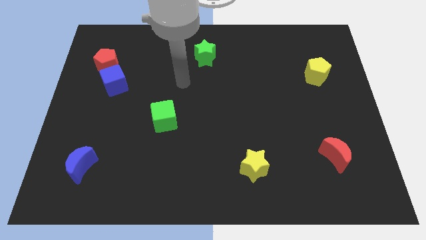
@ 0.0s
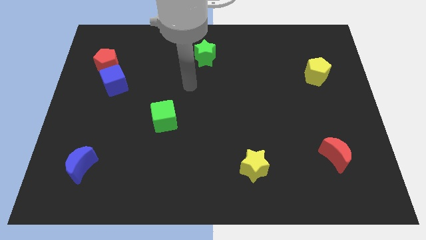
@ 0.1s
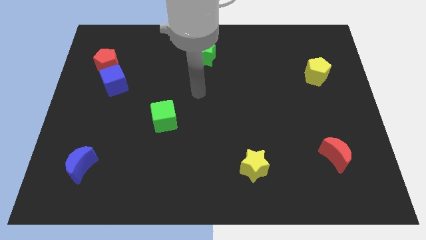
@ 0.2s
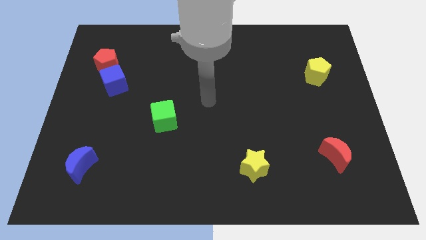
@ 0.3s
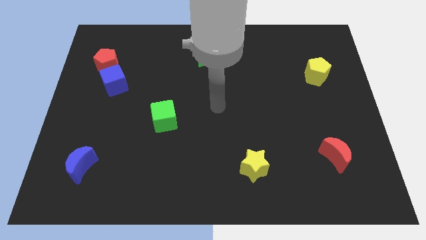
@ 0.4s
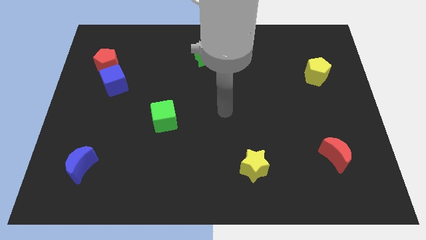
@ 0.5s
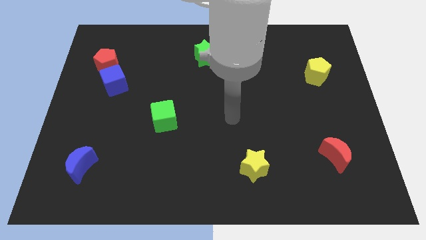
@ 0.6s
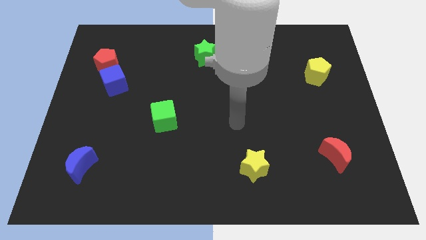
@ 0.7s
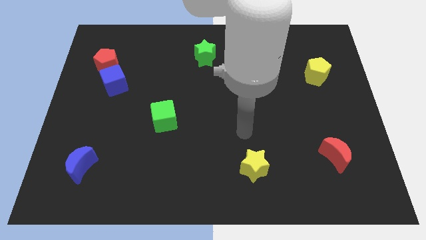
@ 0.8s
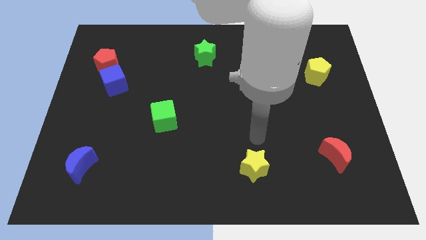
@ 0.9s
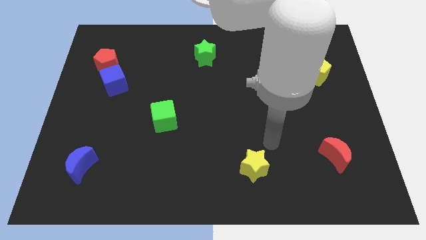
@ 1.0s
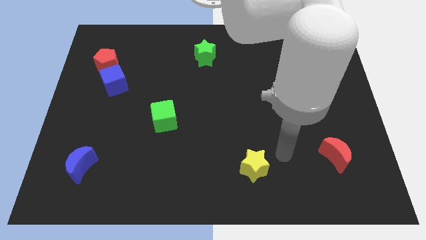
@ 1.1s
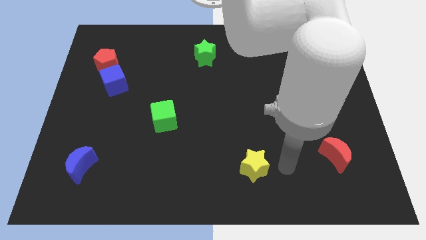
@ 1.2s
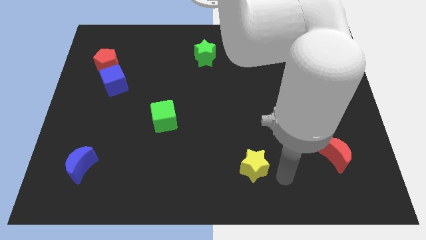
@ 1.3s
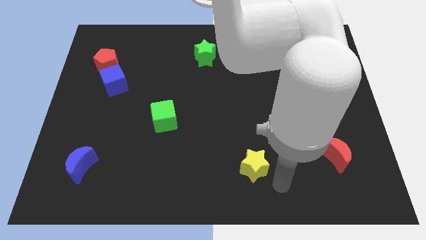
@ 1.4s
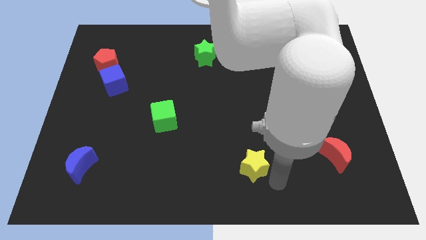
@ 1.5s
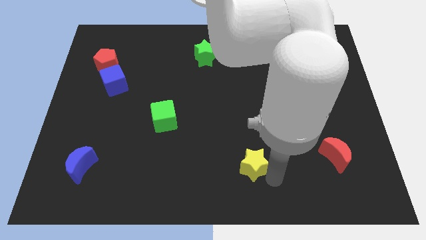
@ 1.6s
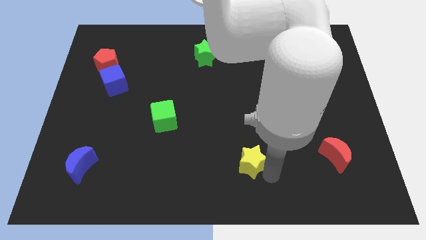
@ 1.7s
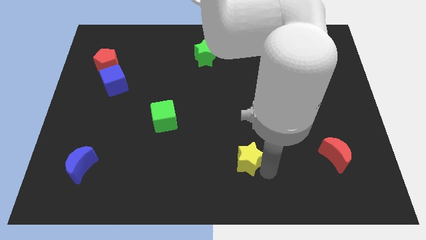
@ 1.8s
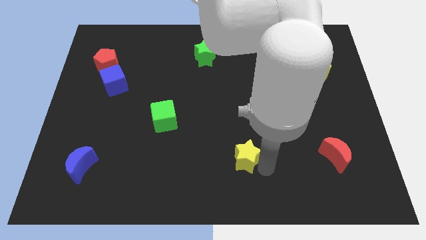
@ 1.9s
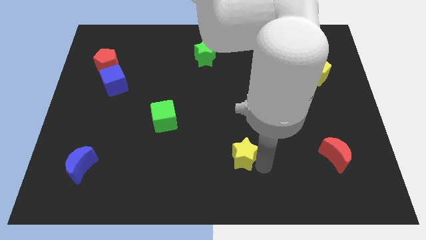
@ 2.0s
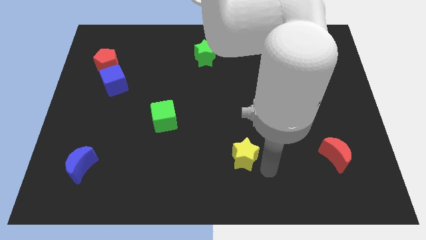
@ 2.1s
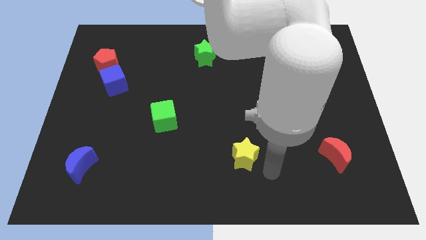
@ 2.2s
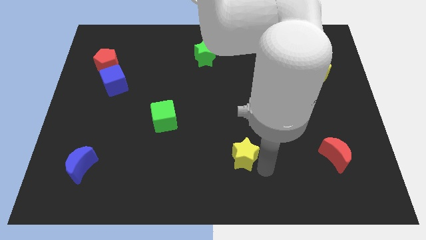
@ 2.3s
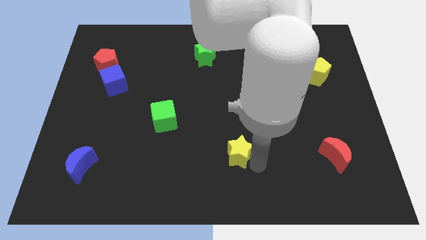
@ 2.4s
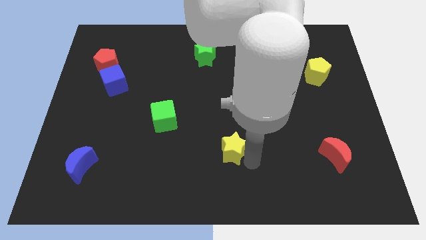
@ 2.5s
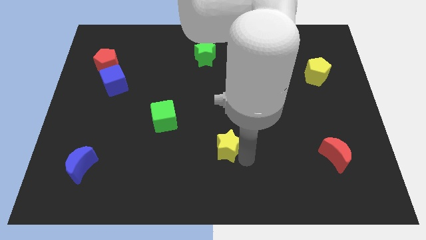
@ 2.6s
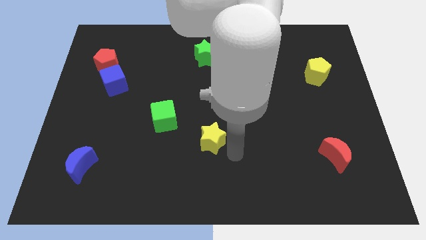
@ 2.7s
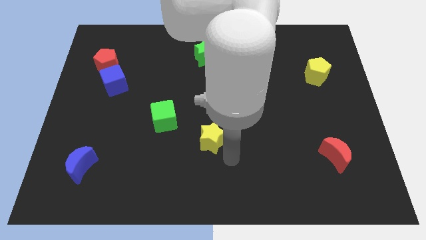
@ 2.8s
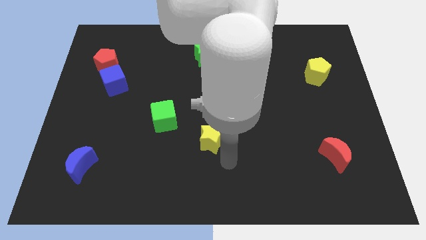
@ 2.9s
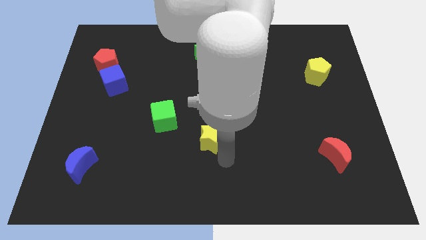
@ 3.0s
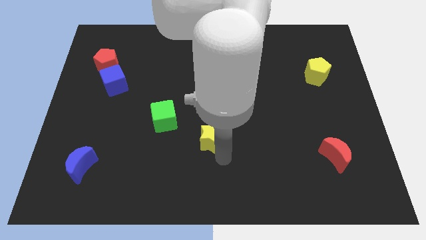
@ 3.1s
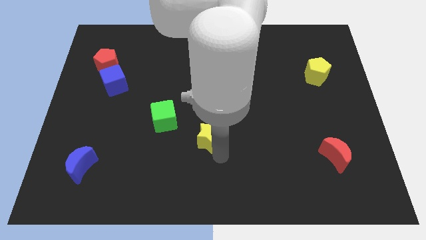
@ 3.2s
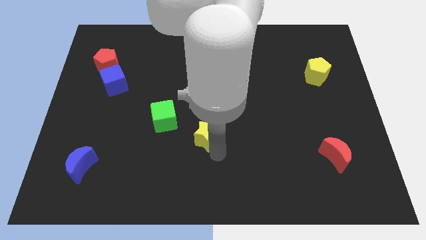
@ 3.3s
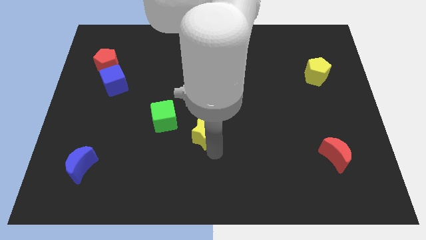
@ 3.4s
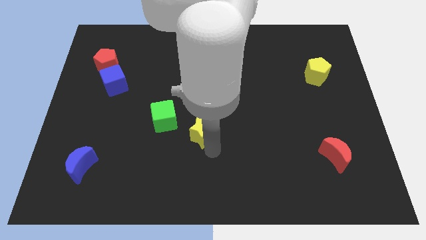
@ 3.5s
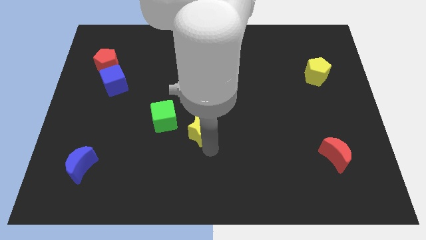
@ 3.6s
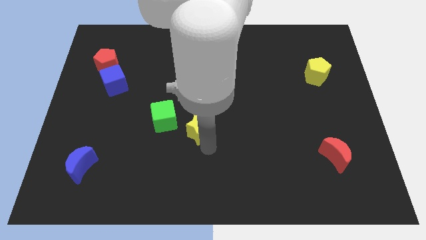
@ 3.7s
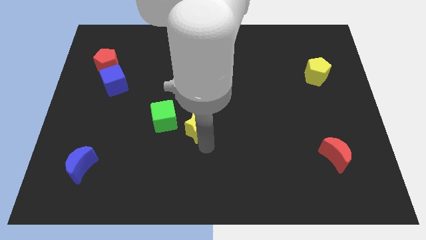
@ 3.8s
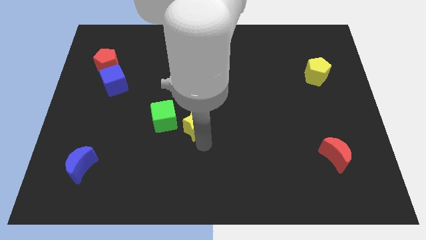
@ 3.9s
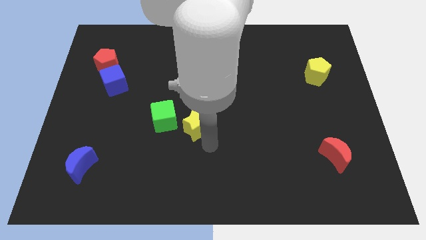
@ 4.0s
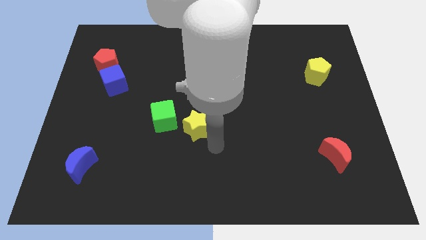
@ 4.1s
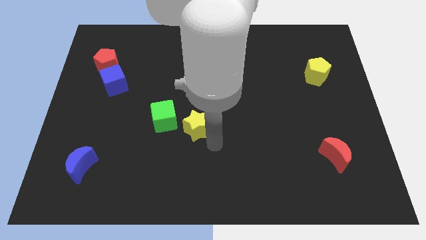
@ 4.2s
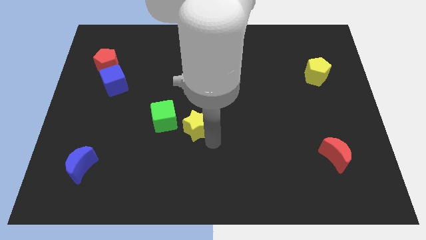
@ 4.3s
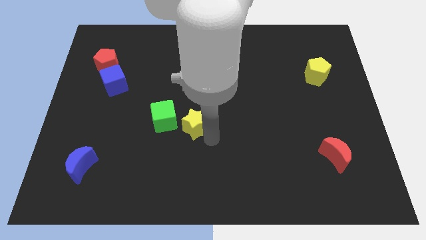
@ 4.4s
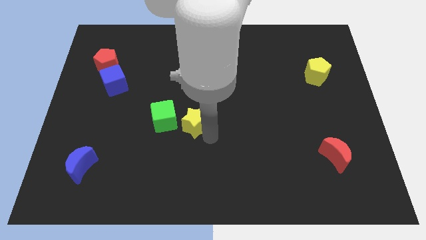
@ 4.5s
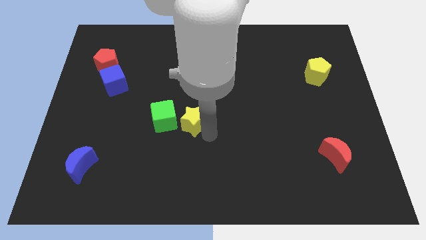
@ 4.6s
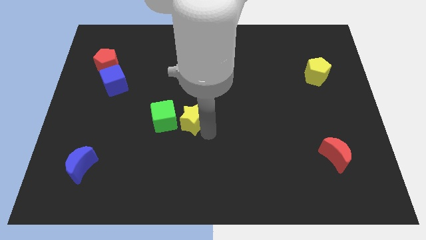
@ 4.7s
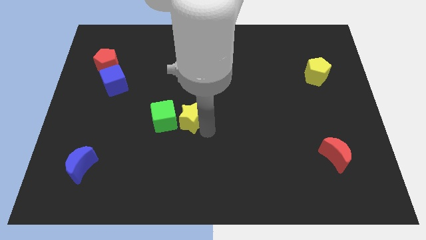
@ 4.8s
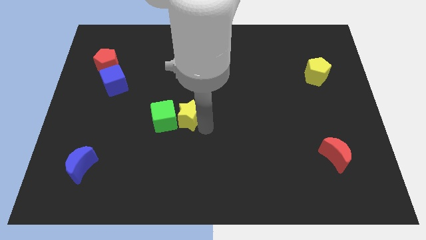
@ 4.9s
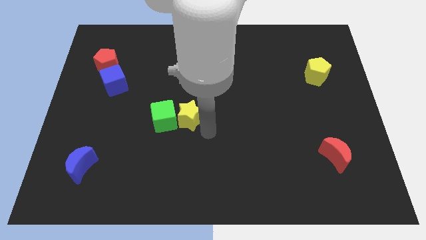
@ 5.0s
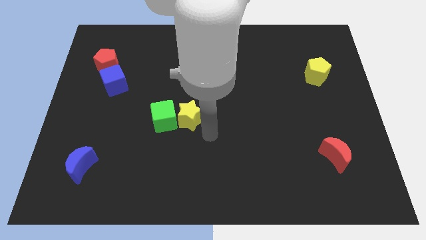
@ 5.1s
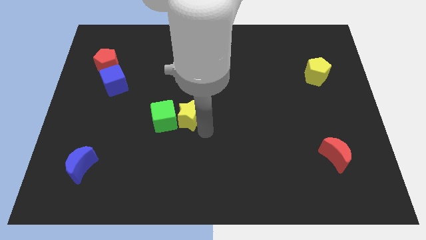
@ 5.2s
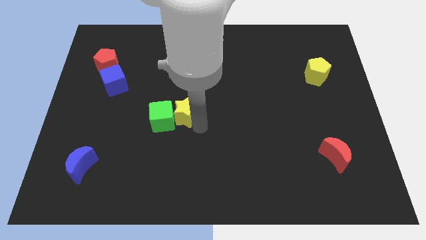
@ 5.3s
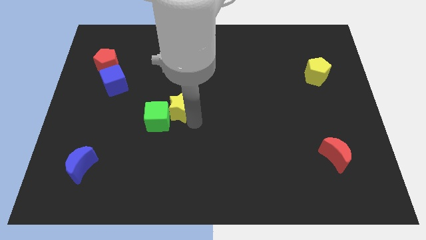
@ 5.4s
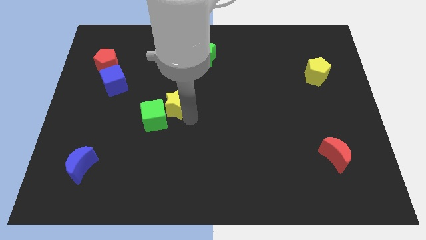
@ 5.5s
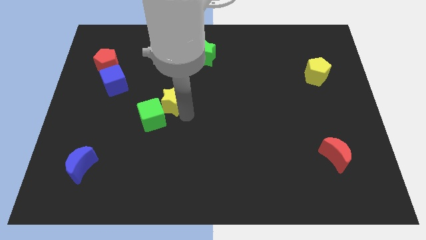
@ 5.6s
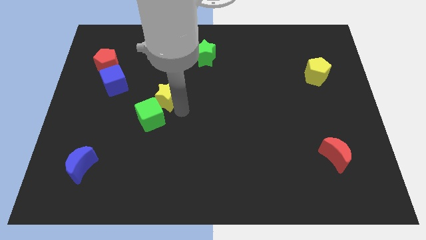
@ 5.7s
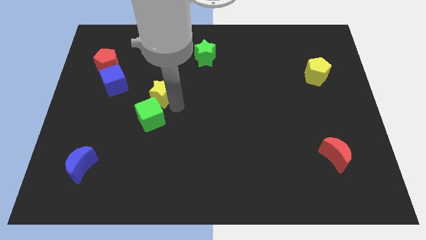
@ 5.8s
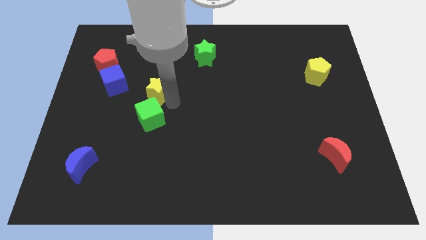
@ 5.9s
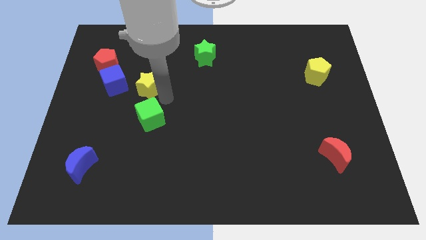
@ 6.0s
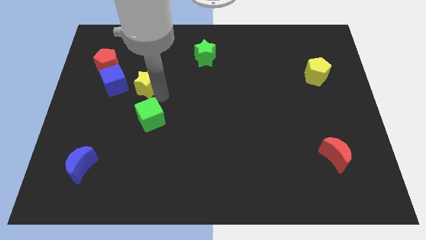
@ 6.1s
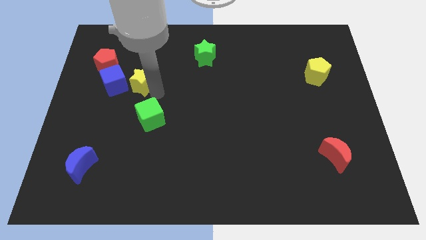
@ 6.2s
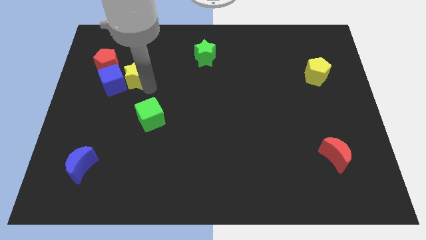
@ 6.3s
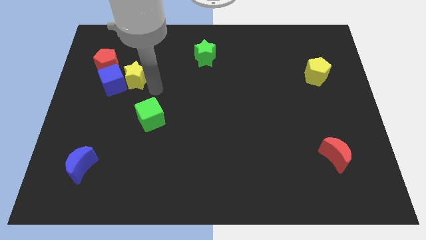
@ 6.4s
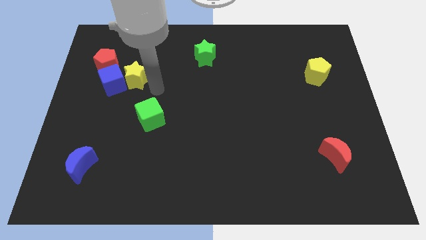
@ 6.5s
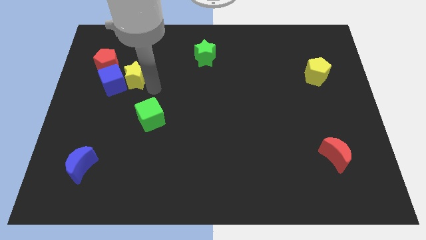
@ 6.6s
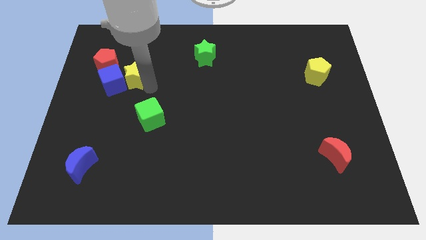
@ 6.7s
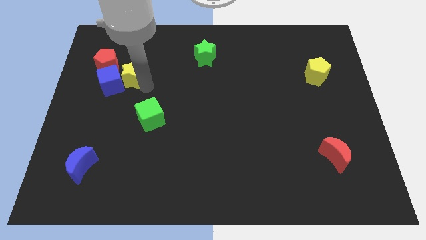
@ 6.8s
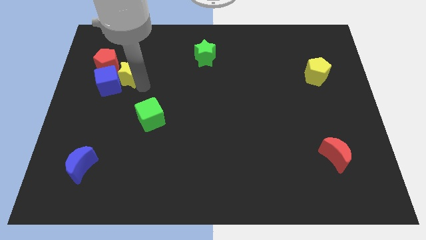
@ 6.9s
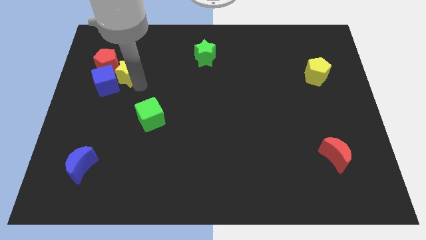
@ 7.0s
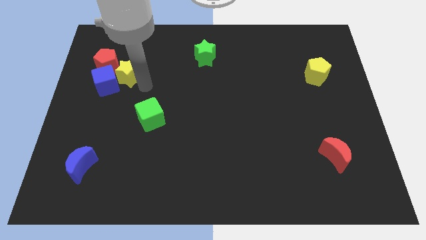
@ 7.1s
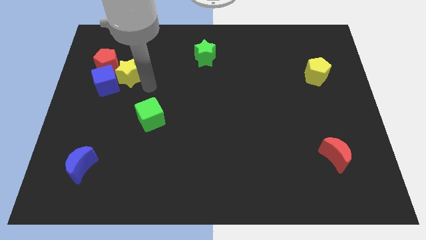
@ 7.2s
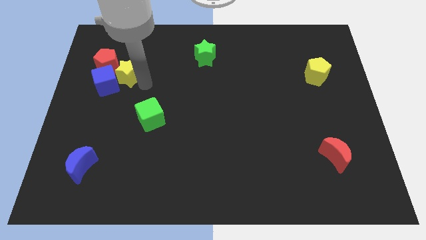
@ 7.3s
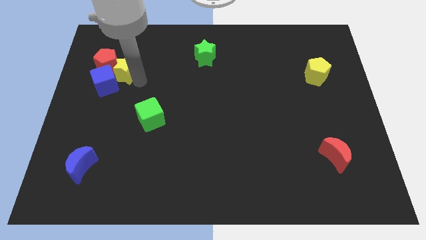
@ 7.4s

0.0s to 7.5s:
slide the yellow star to the red pentagon

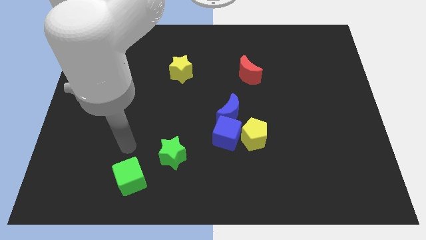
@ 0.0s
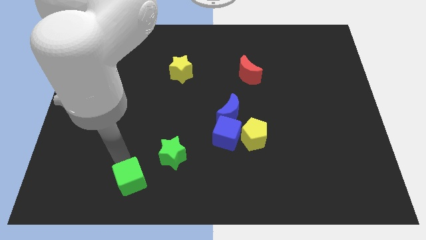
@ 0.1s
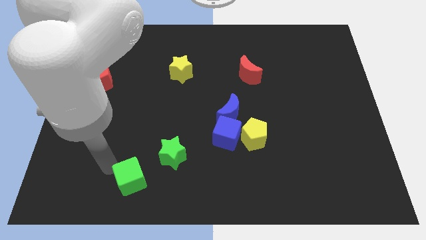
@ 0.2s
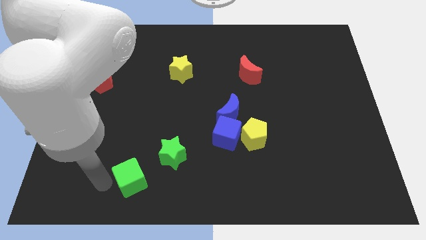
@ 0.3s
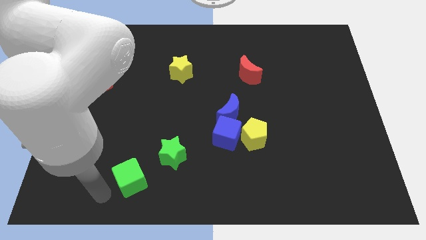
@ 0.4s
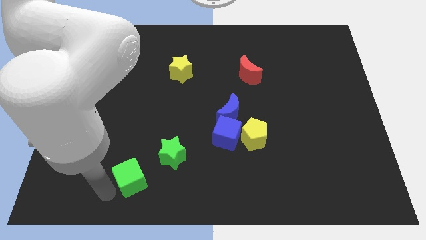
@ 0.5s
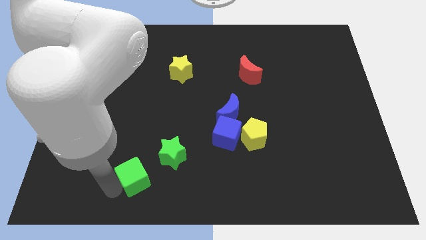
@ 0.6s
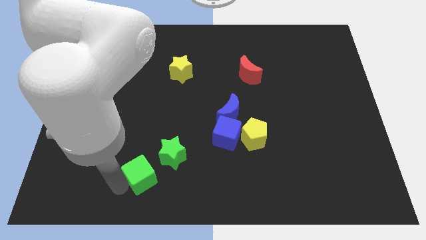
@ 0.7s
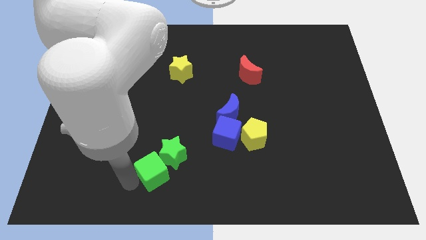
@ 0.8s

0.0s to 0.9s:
put the green cube towards the green star

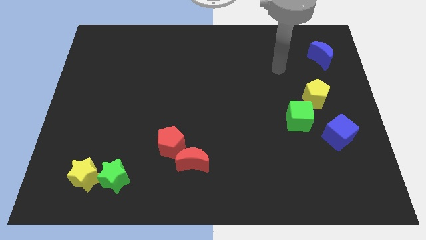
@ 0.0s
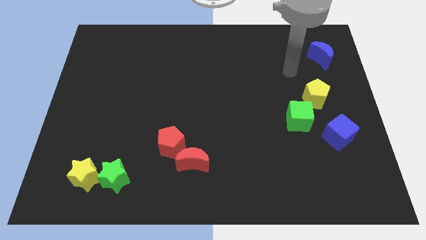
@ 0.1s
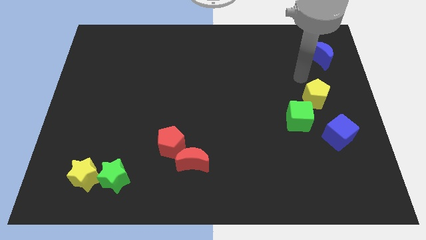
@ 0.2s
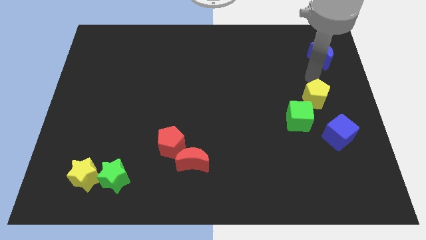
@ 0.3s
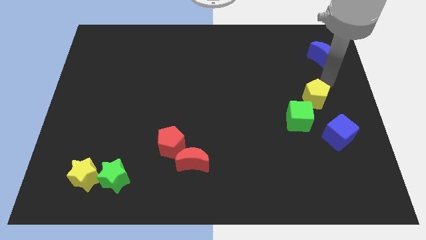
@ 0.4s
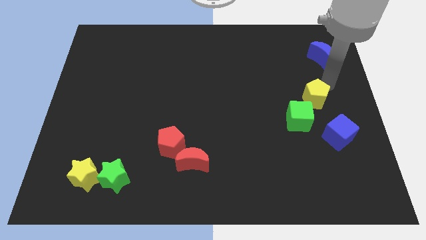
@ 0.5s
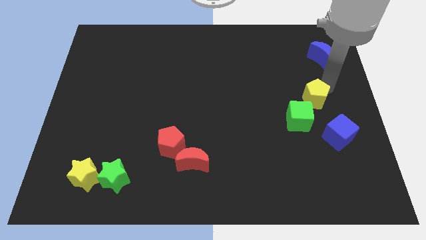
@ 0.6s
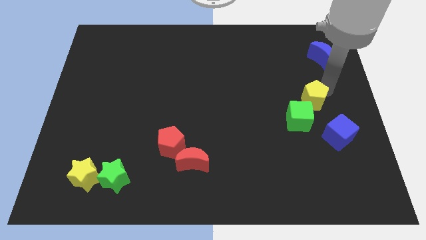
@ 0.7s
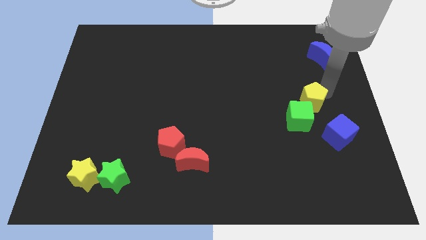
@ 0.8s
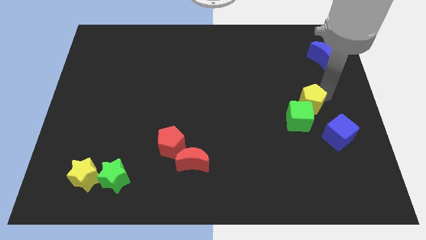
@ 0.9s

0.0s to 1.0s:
slide the yellow pentagon close to the green cube
